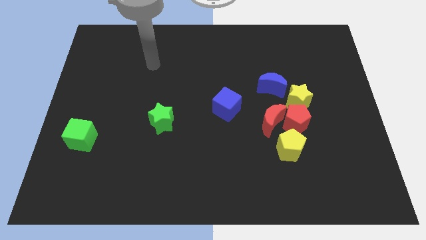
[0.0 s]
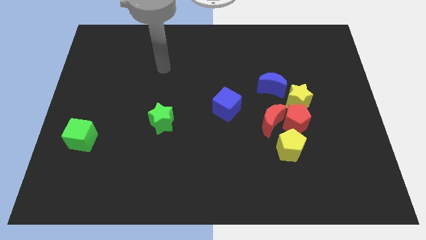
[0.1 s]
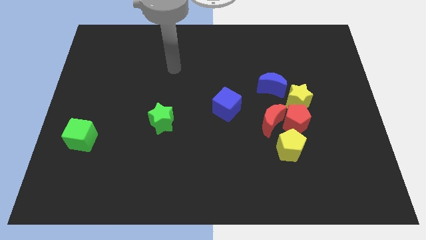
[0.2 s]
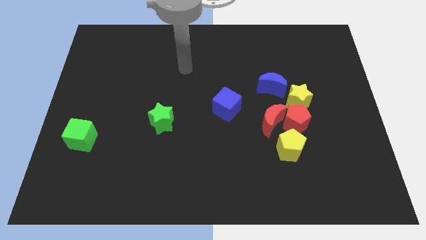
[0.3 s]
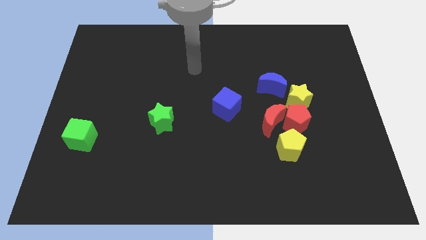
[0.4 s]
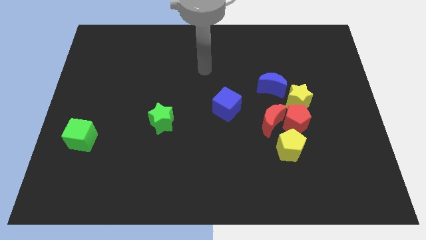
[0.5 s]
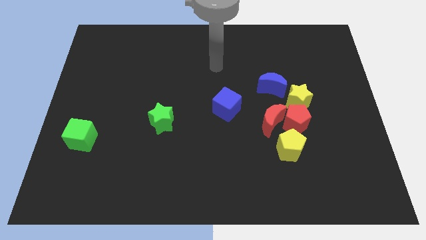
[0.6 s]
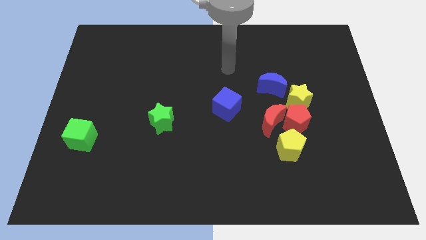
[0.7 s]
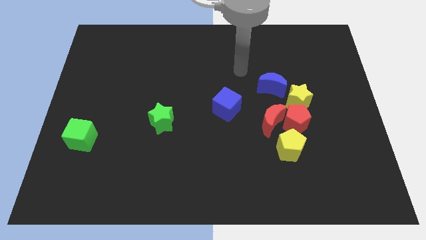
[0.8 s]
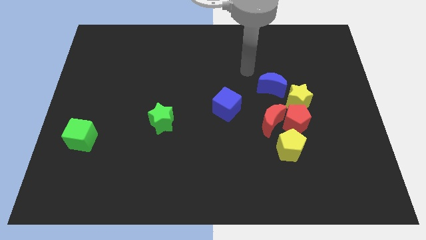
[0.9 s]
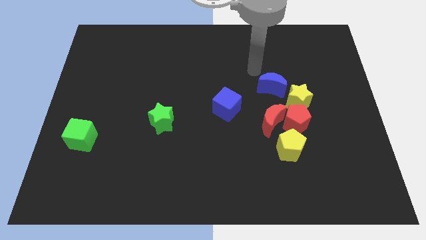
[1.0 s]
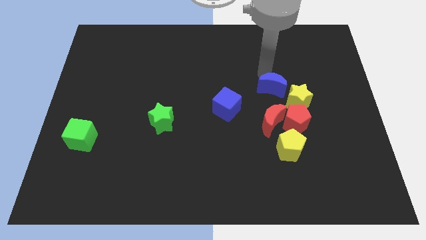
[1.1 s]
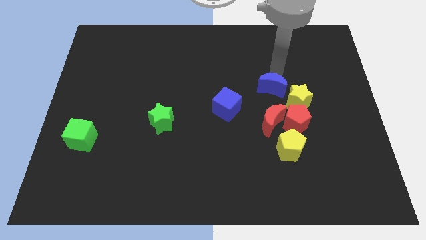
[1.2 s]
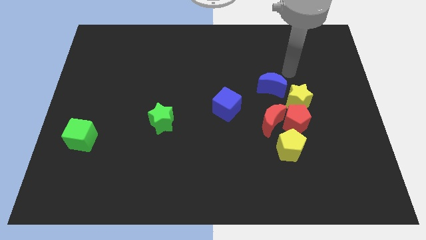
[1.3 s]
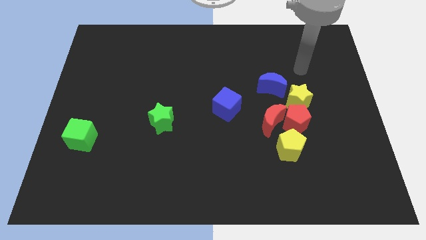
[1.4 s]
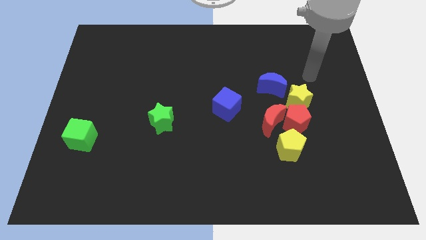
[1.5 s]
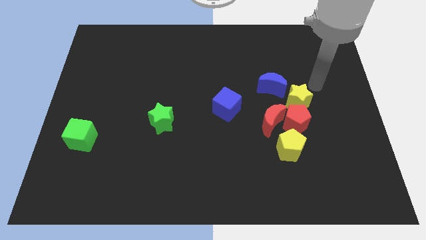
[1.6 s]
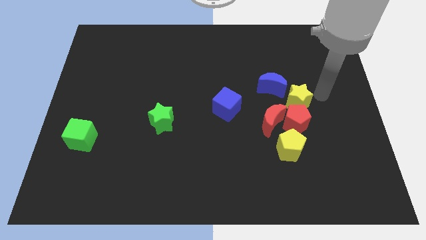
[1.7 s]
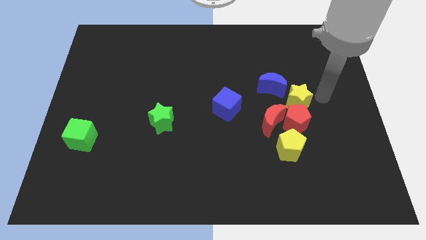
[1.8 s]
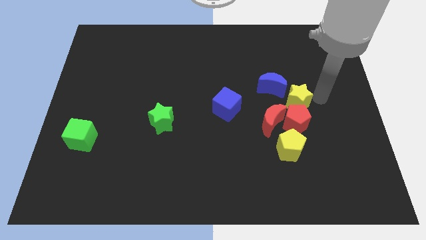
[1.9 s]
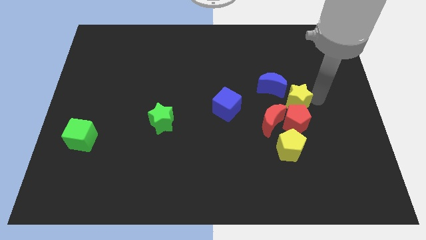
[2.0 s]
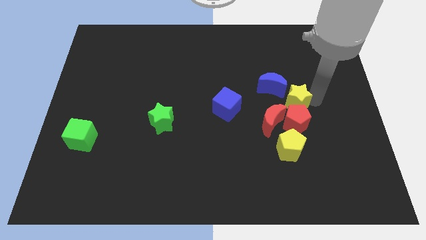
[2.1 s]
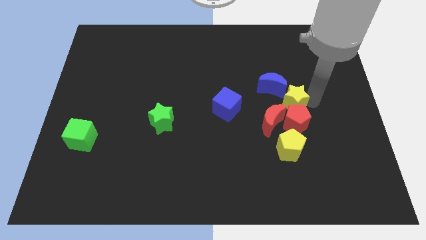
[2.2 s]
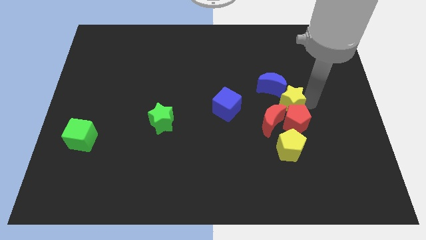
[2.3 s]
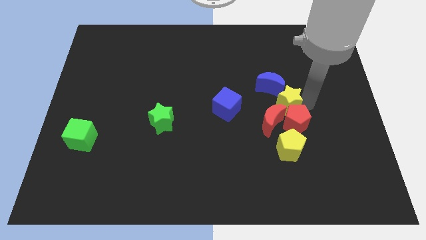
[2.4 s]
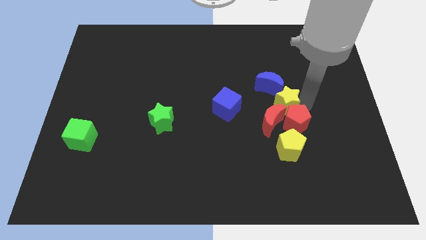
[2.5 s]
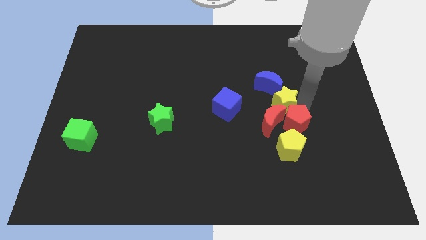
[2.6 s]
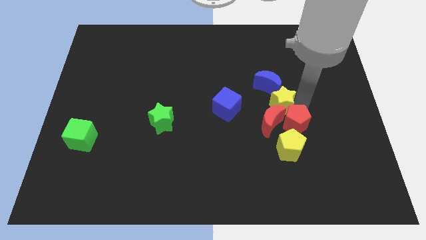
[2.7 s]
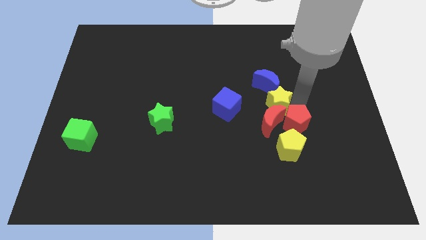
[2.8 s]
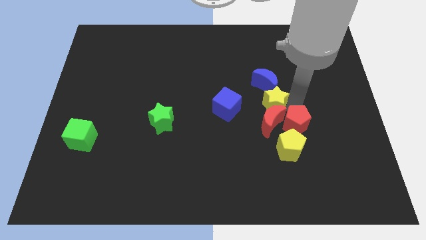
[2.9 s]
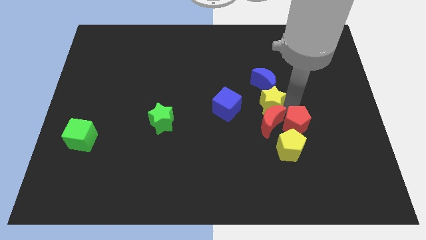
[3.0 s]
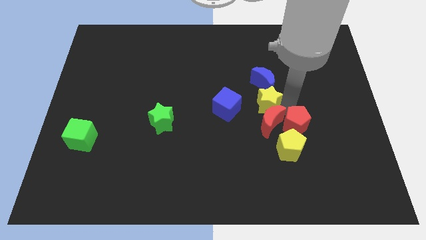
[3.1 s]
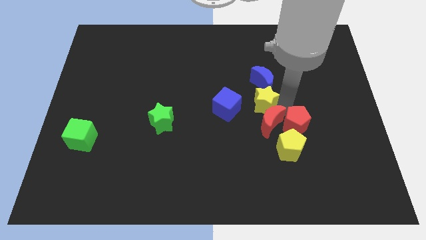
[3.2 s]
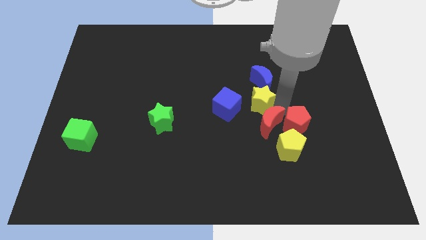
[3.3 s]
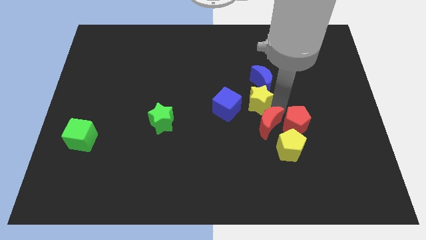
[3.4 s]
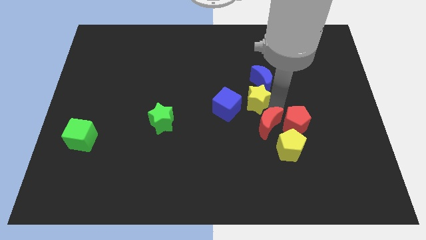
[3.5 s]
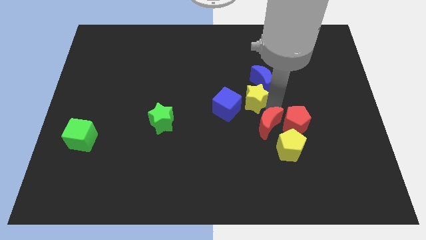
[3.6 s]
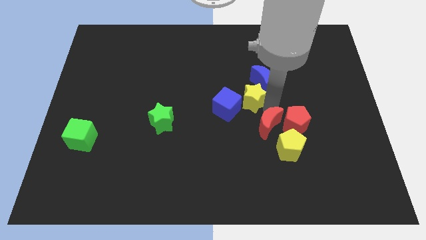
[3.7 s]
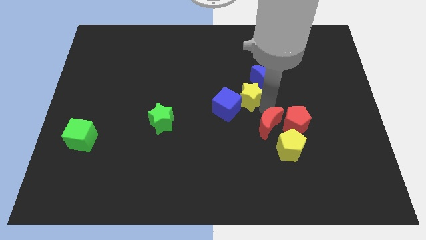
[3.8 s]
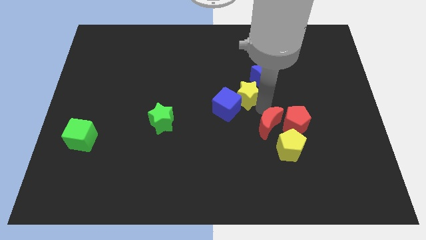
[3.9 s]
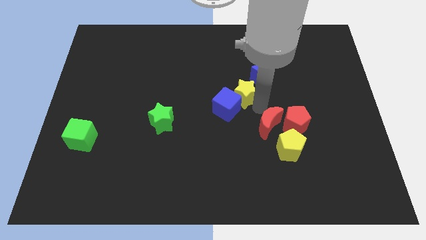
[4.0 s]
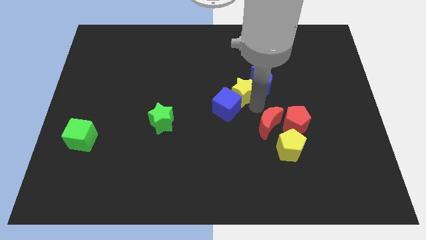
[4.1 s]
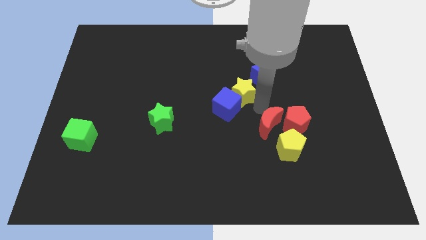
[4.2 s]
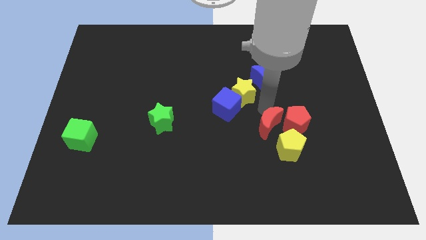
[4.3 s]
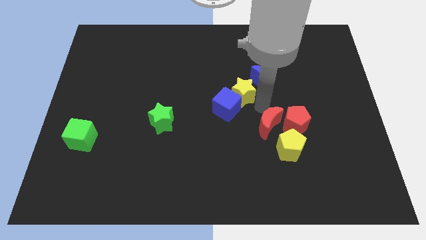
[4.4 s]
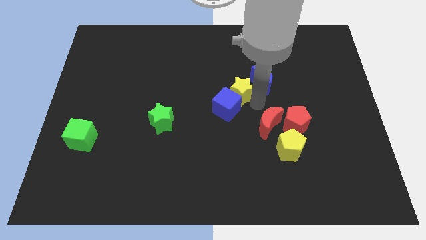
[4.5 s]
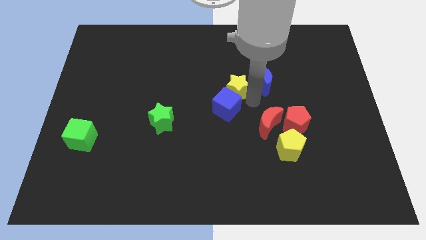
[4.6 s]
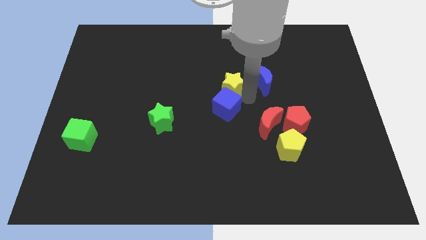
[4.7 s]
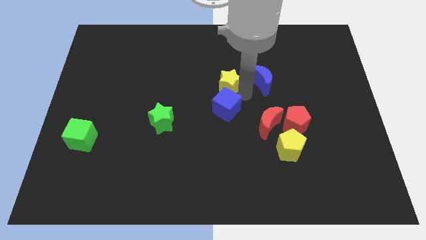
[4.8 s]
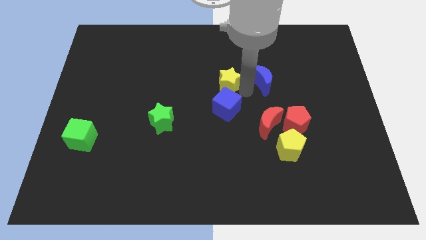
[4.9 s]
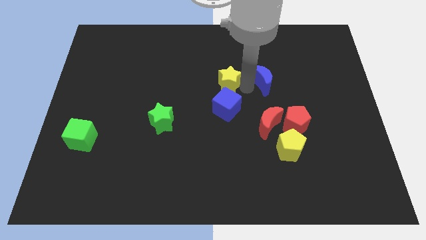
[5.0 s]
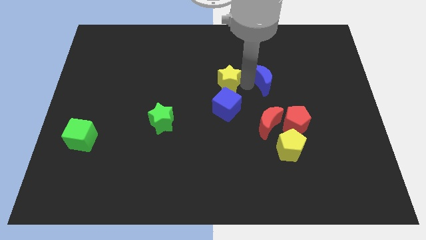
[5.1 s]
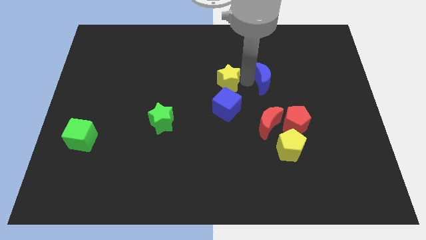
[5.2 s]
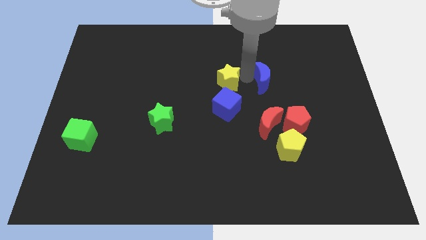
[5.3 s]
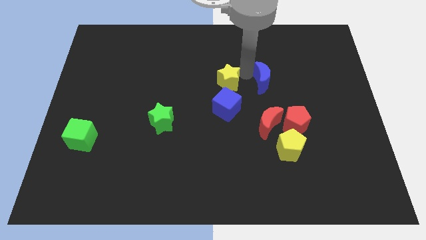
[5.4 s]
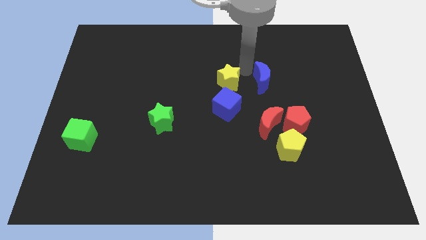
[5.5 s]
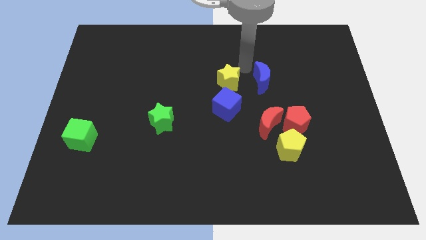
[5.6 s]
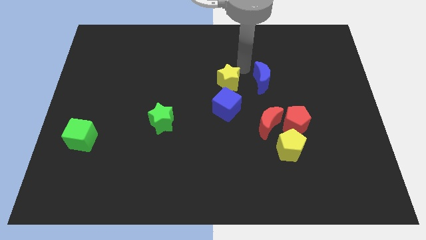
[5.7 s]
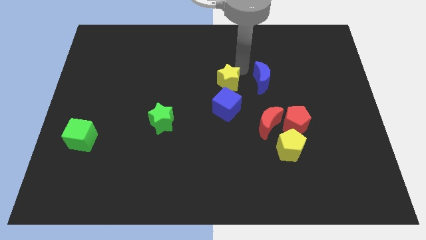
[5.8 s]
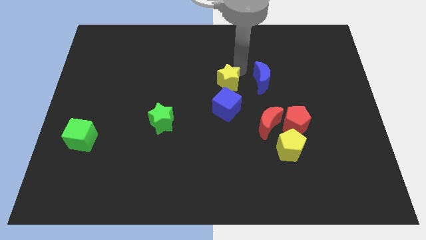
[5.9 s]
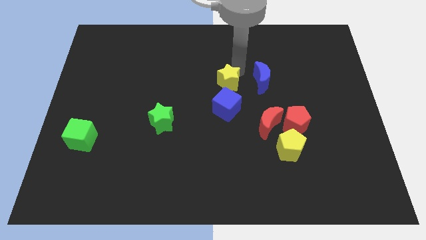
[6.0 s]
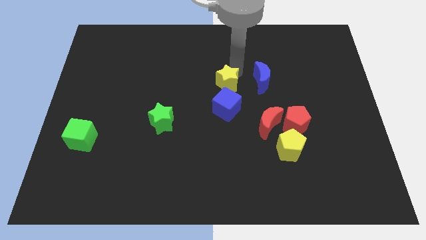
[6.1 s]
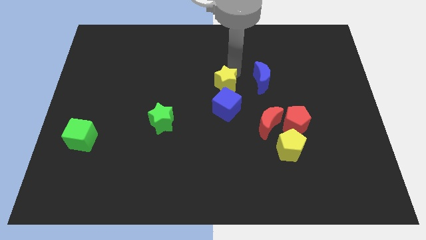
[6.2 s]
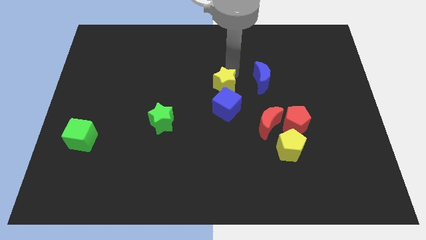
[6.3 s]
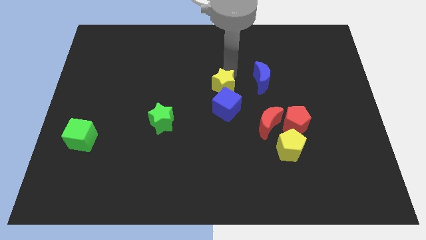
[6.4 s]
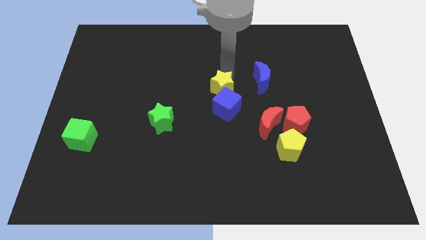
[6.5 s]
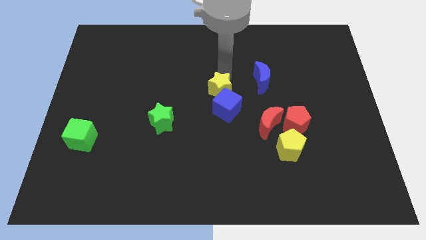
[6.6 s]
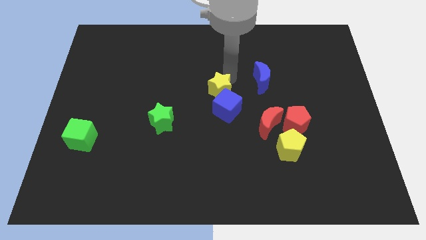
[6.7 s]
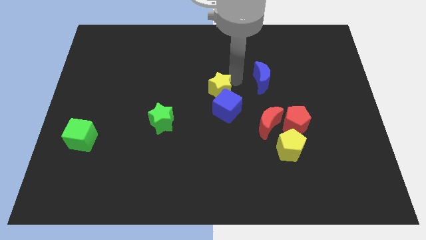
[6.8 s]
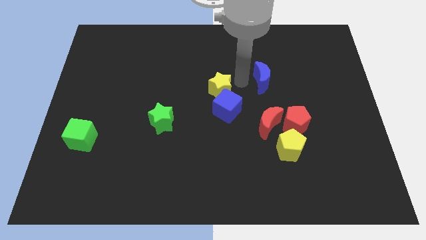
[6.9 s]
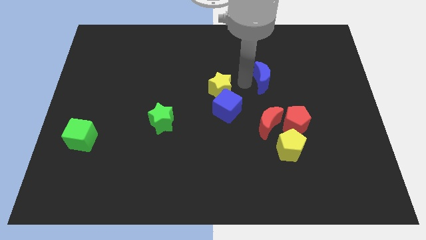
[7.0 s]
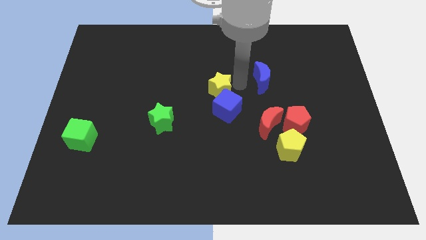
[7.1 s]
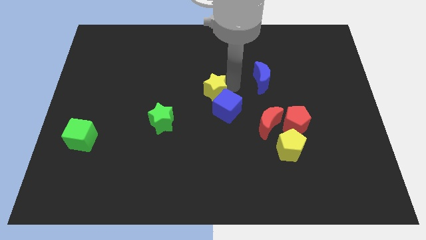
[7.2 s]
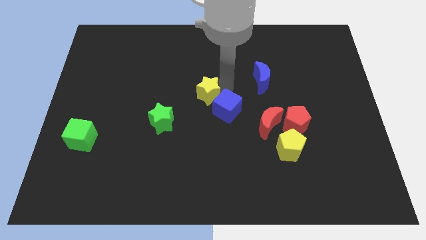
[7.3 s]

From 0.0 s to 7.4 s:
move the yellow star to the left

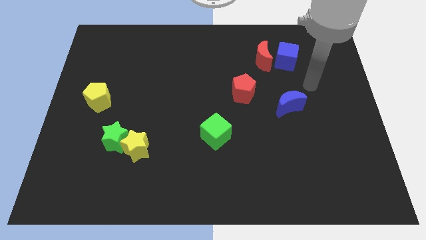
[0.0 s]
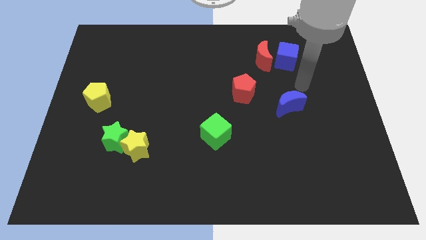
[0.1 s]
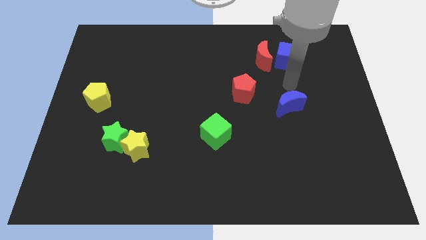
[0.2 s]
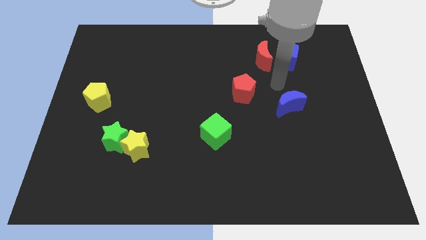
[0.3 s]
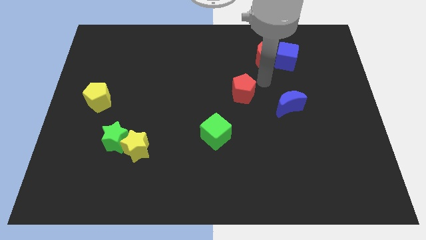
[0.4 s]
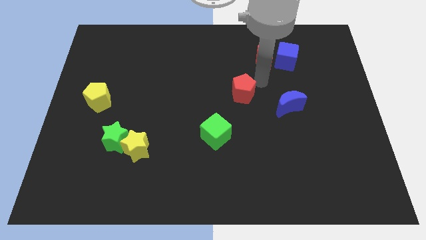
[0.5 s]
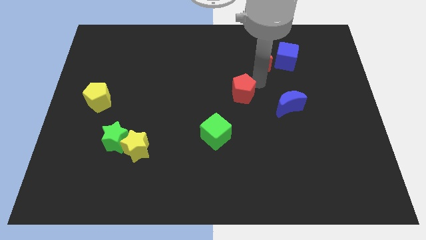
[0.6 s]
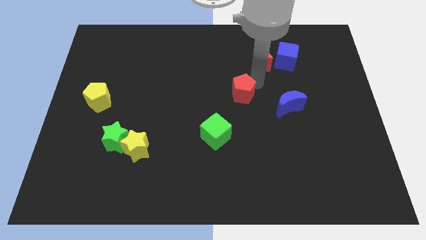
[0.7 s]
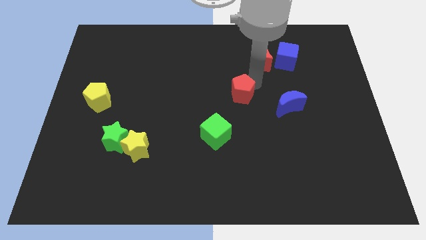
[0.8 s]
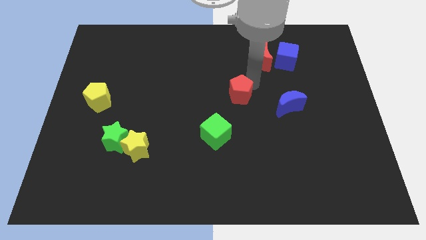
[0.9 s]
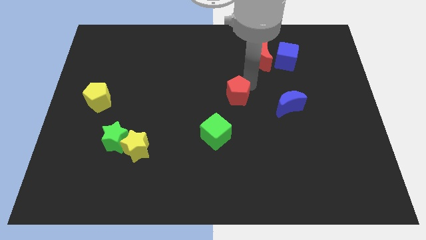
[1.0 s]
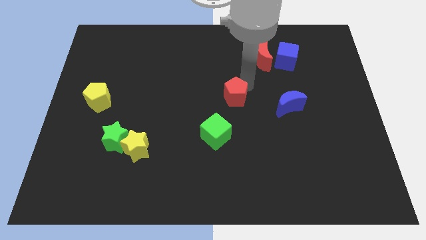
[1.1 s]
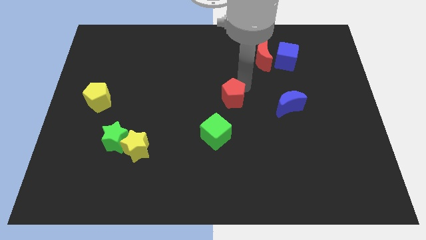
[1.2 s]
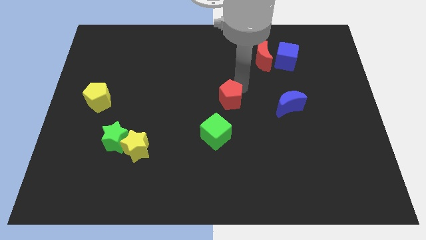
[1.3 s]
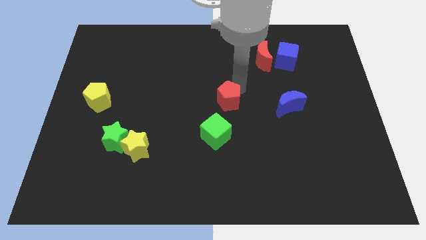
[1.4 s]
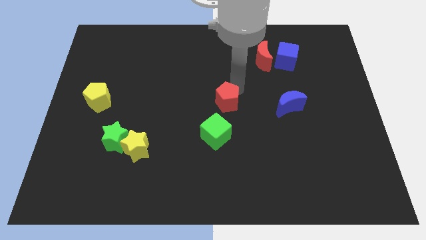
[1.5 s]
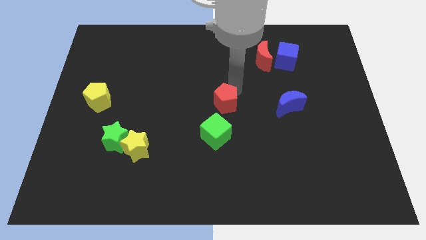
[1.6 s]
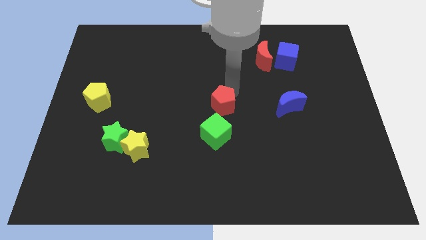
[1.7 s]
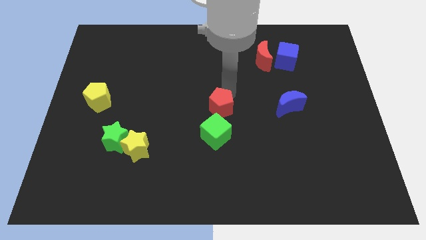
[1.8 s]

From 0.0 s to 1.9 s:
slide the red pentagon slightly downwards and to the left diagonally
